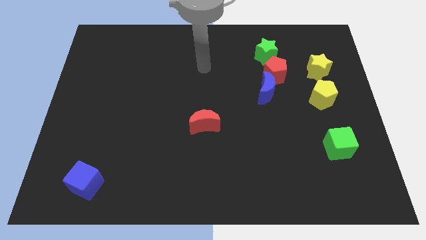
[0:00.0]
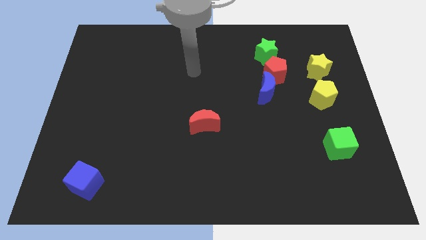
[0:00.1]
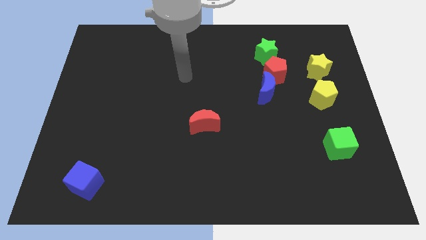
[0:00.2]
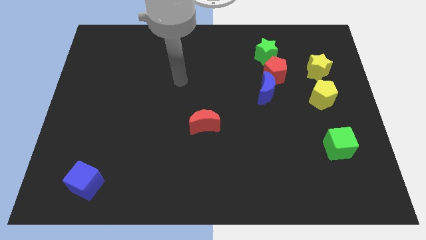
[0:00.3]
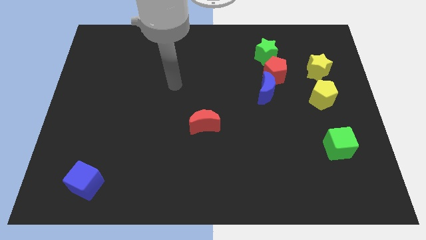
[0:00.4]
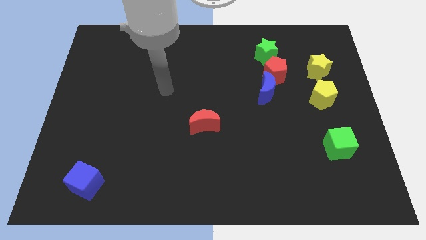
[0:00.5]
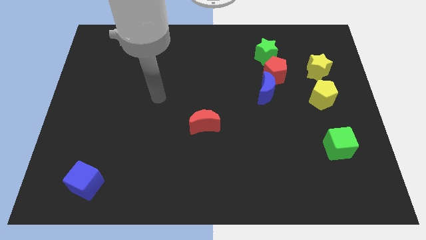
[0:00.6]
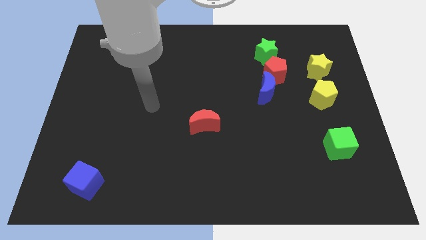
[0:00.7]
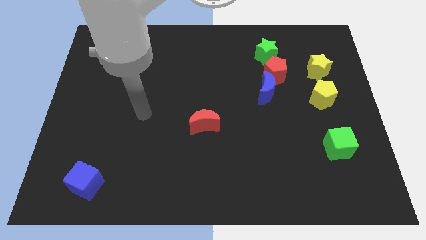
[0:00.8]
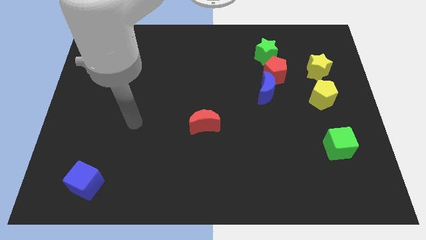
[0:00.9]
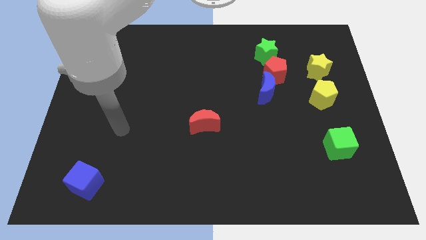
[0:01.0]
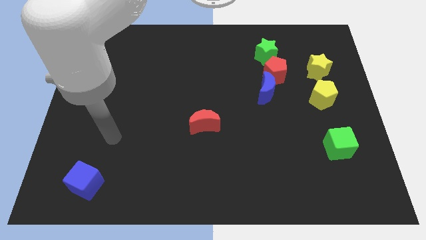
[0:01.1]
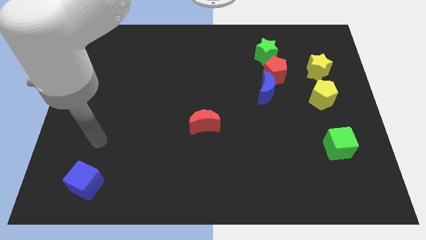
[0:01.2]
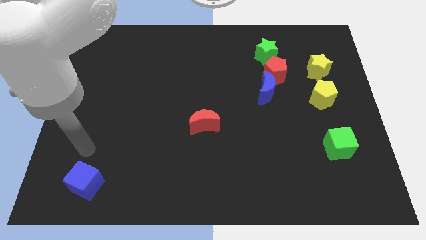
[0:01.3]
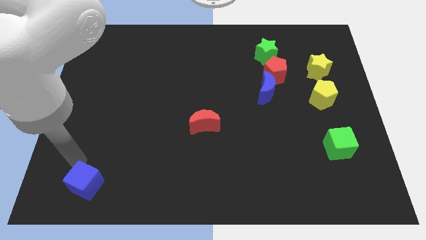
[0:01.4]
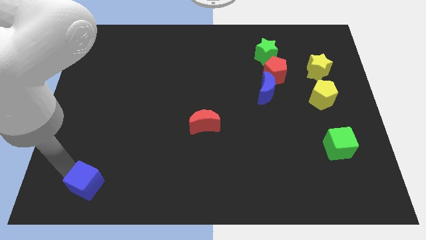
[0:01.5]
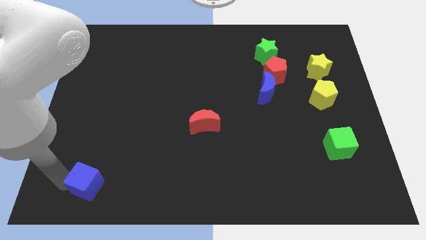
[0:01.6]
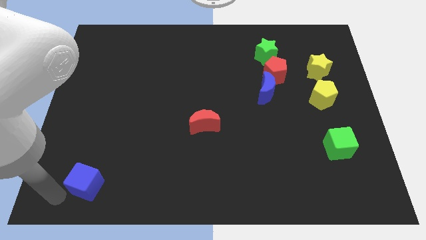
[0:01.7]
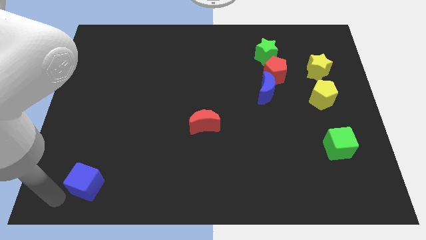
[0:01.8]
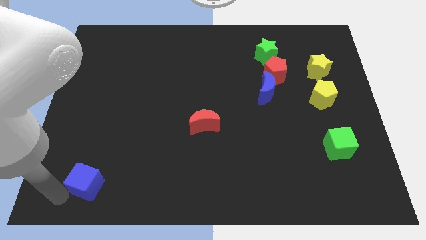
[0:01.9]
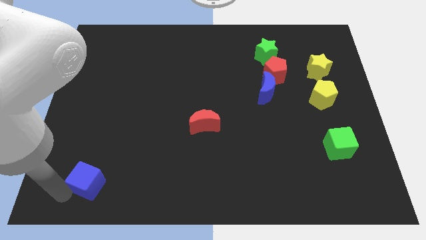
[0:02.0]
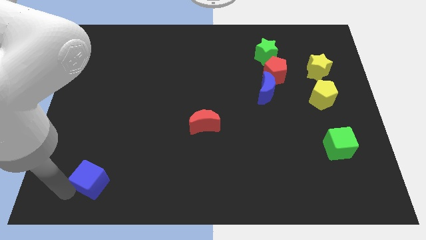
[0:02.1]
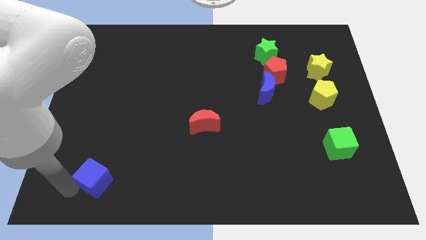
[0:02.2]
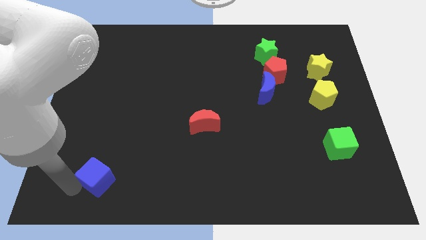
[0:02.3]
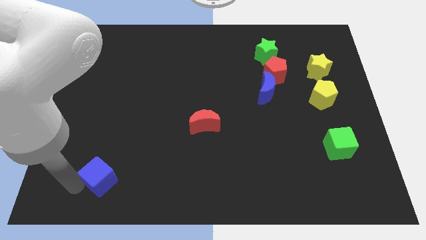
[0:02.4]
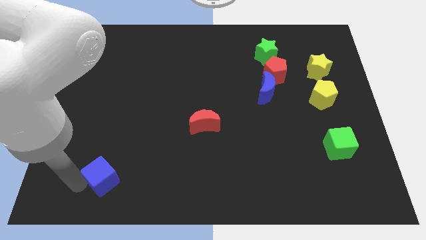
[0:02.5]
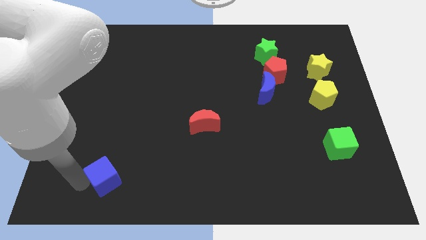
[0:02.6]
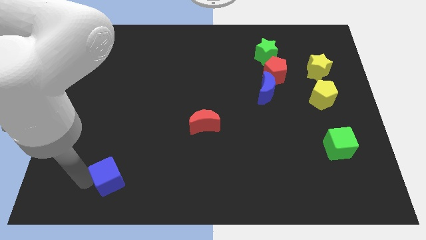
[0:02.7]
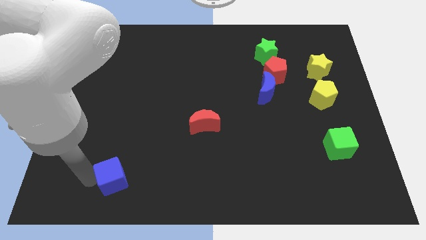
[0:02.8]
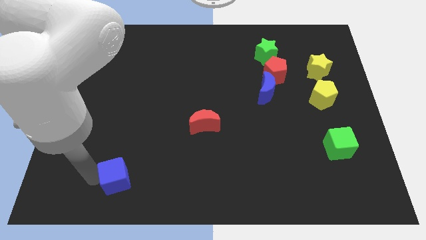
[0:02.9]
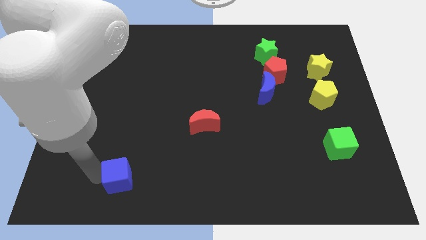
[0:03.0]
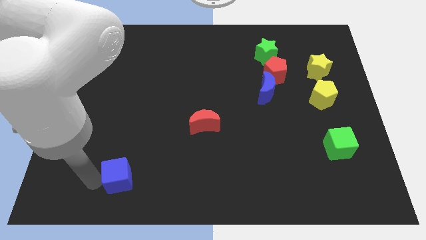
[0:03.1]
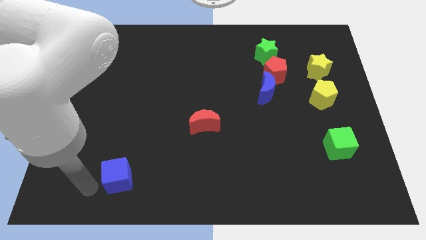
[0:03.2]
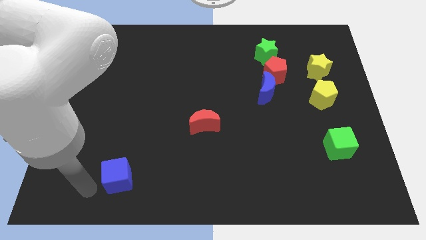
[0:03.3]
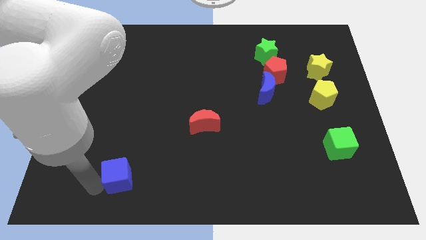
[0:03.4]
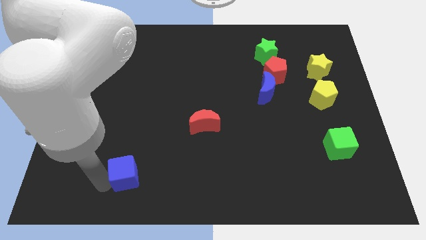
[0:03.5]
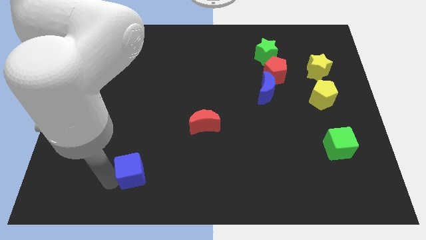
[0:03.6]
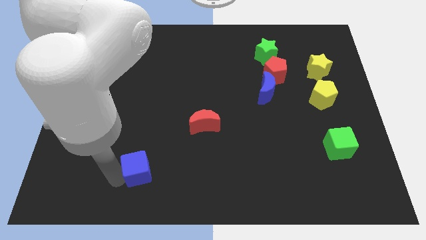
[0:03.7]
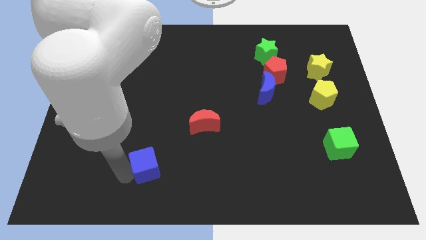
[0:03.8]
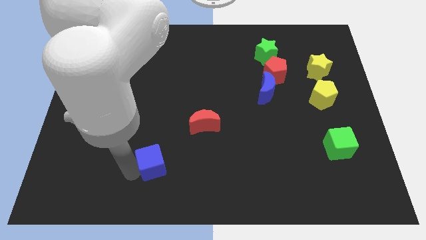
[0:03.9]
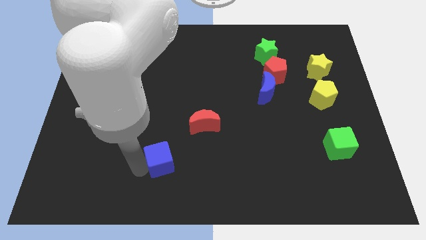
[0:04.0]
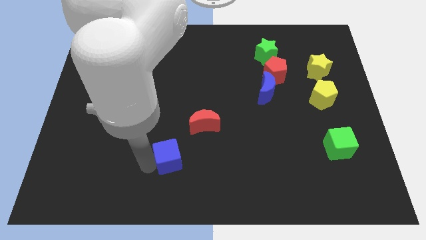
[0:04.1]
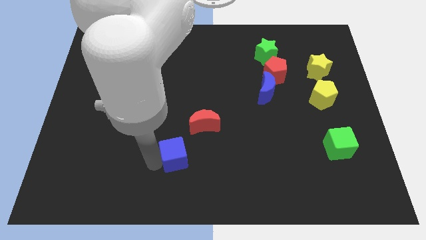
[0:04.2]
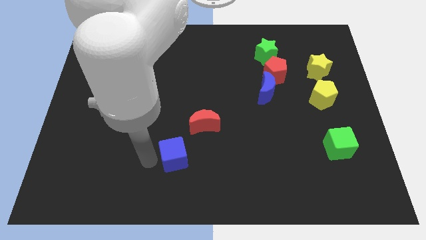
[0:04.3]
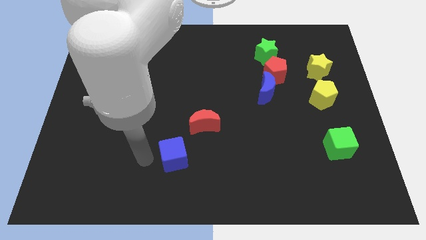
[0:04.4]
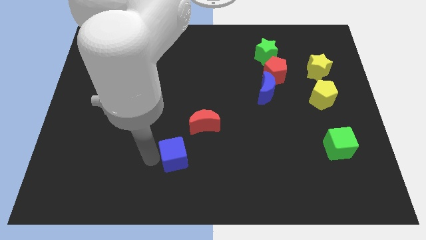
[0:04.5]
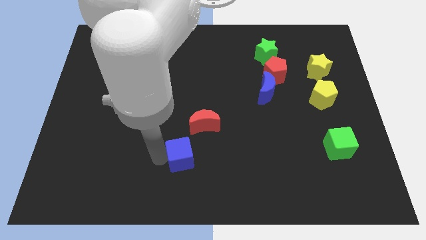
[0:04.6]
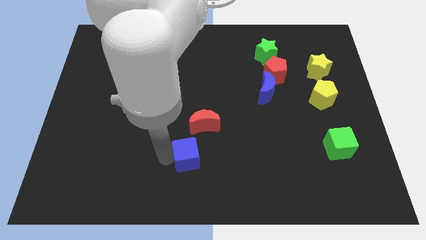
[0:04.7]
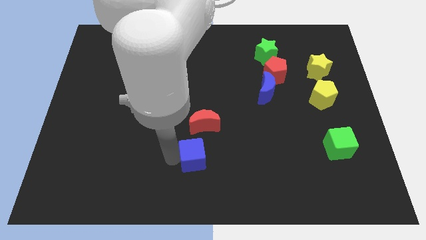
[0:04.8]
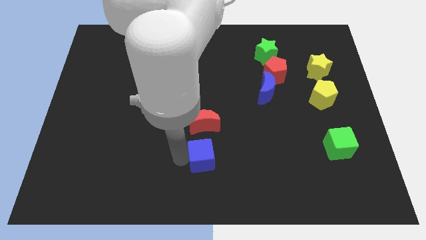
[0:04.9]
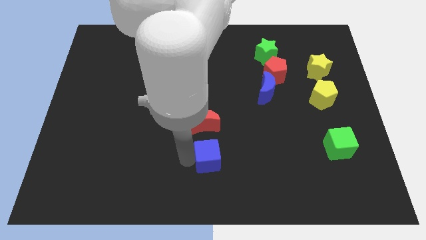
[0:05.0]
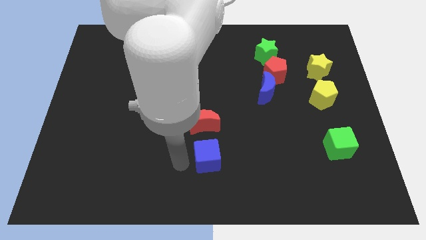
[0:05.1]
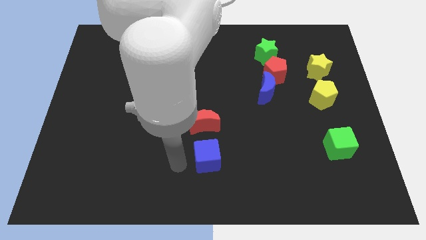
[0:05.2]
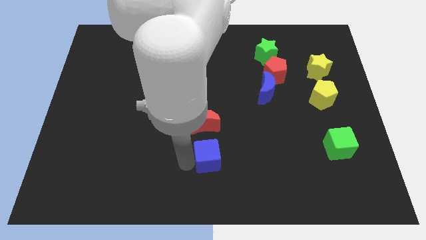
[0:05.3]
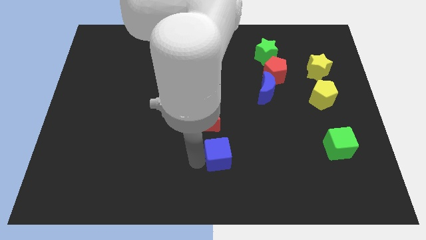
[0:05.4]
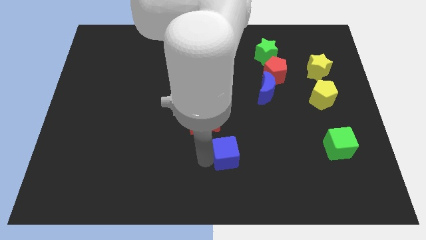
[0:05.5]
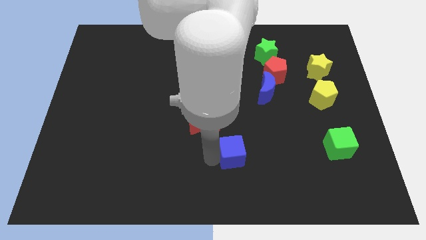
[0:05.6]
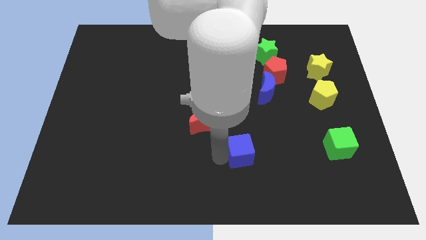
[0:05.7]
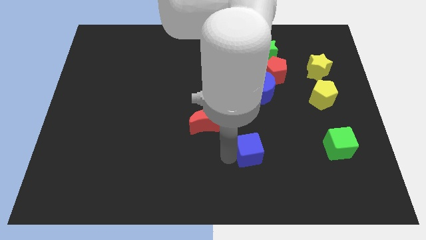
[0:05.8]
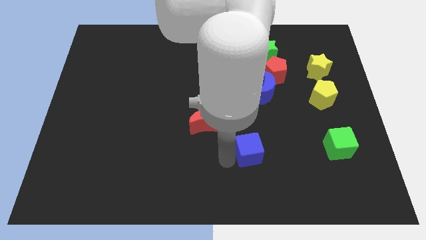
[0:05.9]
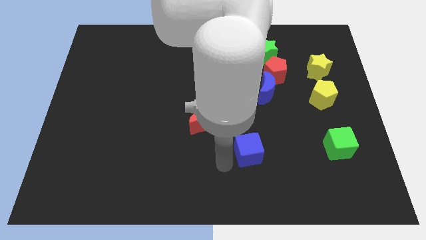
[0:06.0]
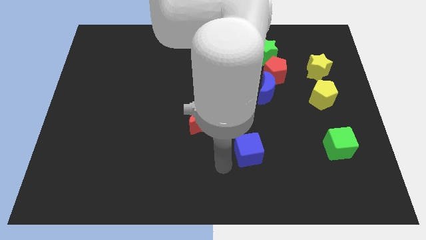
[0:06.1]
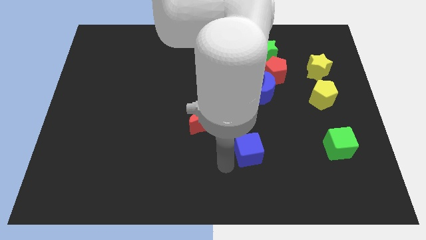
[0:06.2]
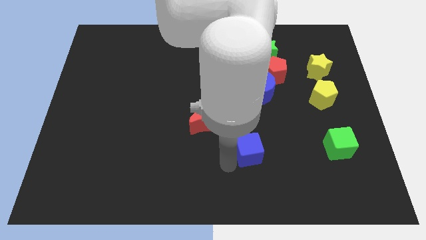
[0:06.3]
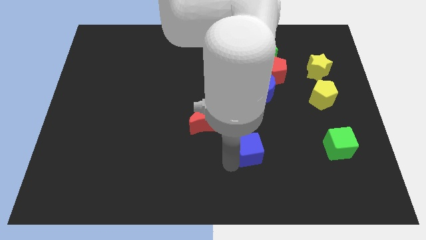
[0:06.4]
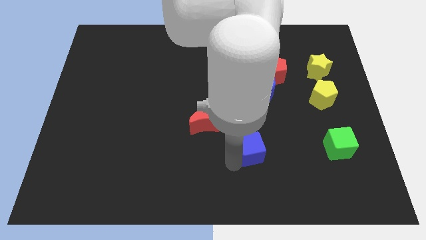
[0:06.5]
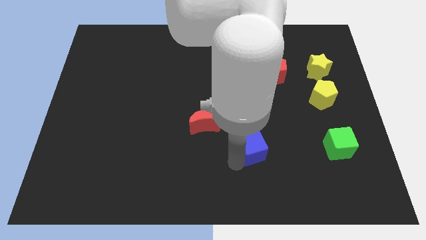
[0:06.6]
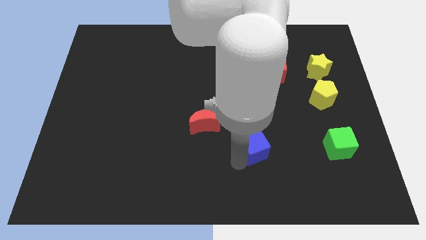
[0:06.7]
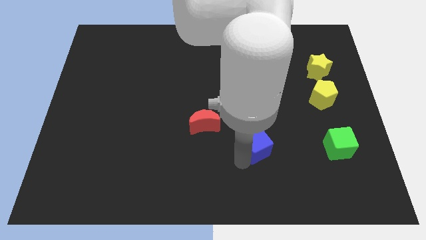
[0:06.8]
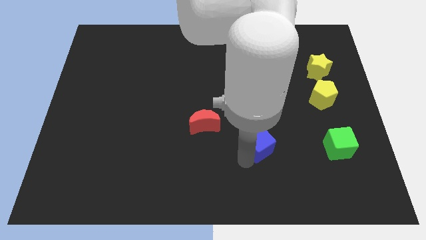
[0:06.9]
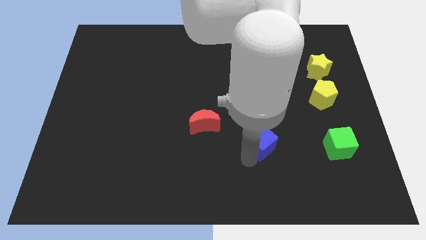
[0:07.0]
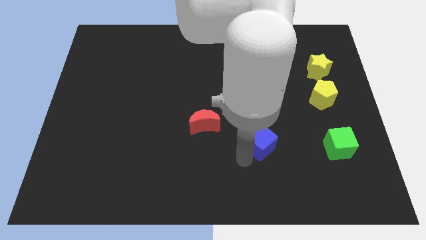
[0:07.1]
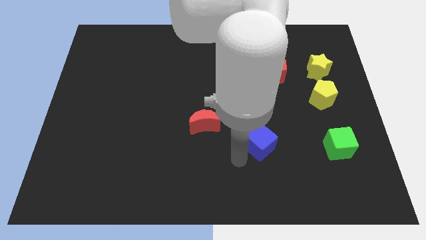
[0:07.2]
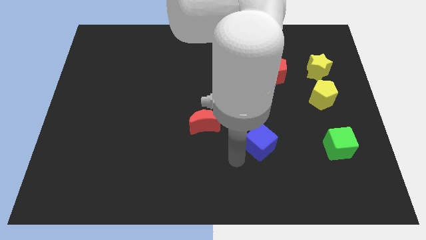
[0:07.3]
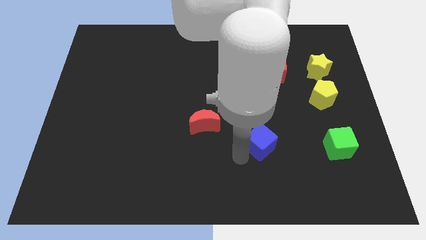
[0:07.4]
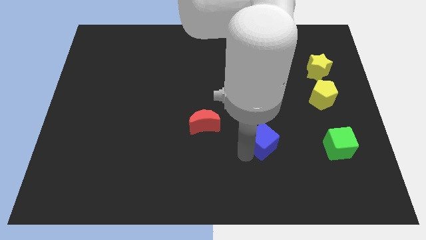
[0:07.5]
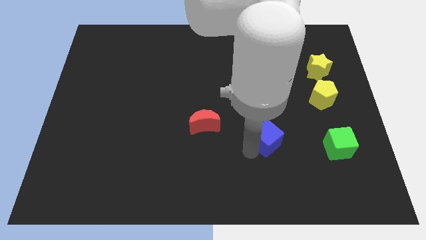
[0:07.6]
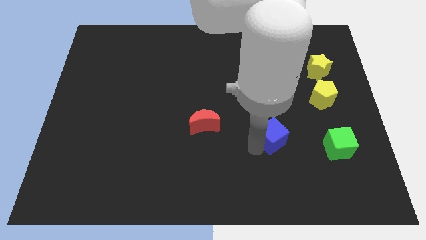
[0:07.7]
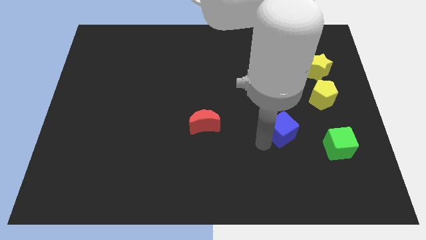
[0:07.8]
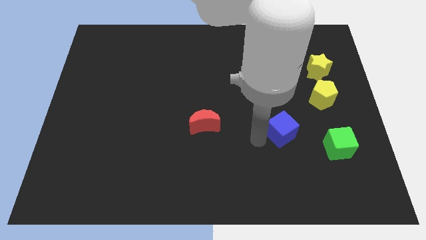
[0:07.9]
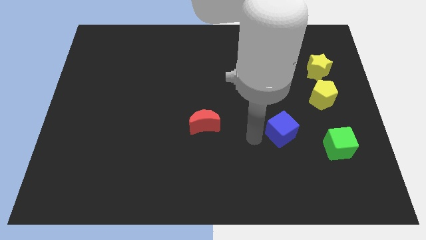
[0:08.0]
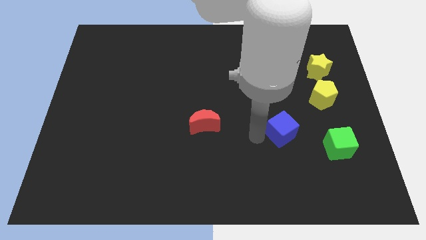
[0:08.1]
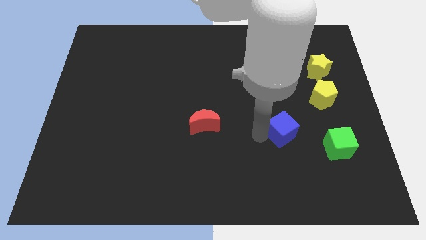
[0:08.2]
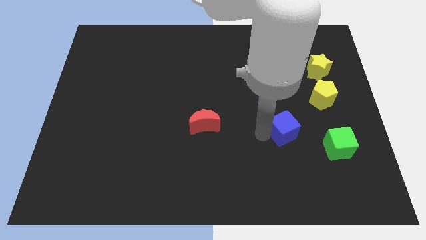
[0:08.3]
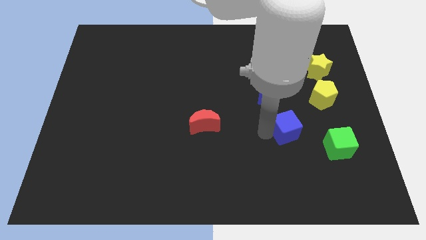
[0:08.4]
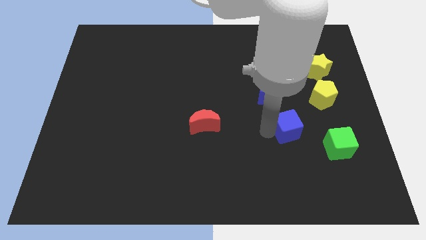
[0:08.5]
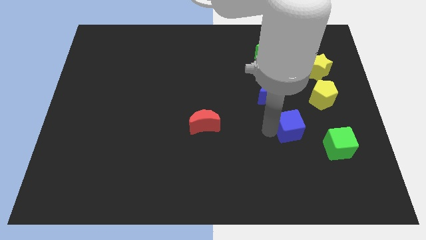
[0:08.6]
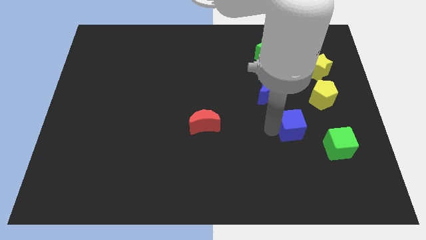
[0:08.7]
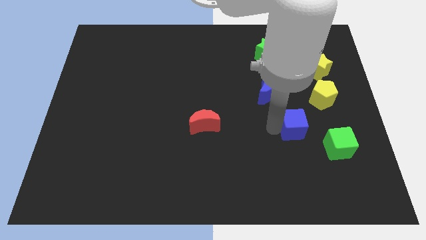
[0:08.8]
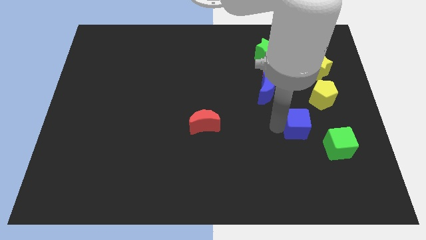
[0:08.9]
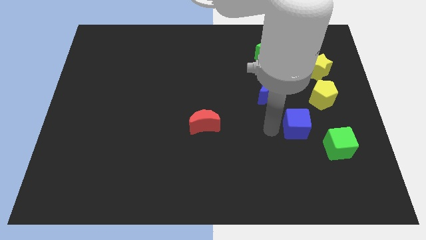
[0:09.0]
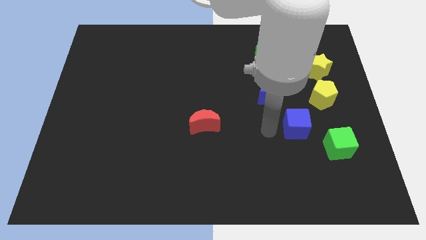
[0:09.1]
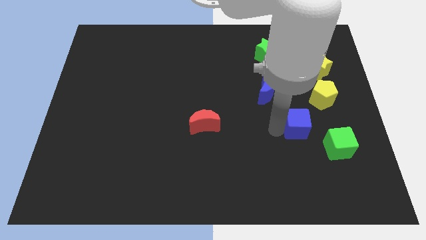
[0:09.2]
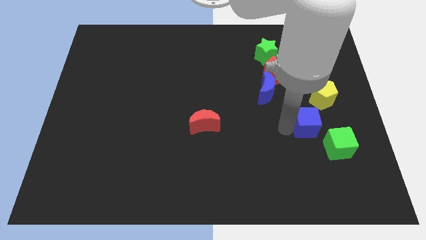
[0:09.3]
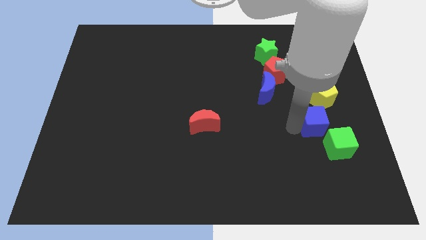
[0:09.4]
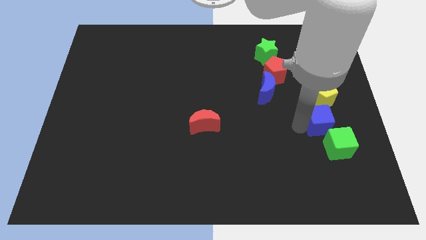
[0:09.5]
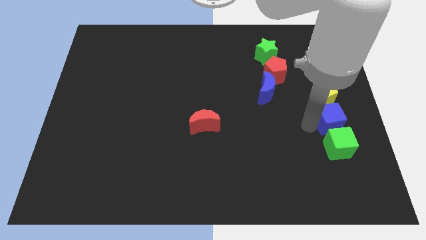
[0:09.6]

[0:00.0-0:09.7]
push the blue cube to the right side of the board
